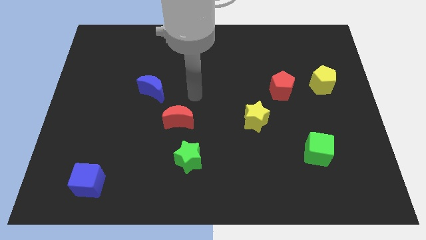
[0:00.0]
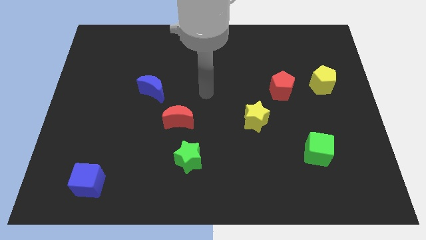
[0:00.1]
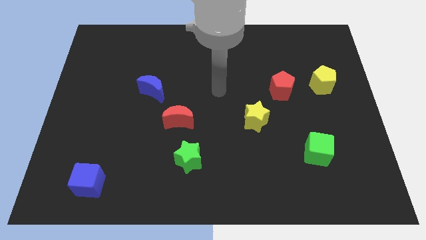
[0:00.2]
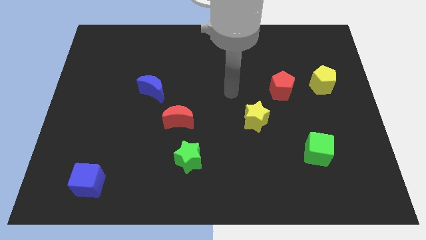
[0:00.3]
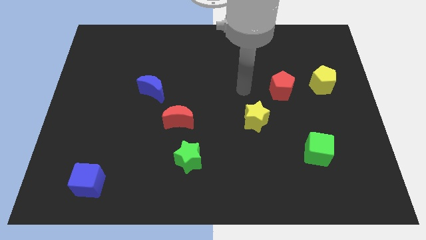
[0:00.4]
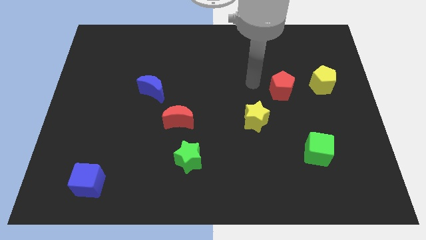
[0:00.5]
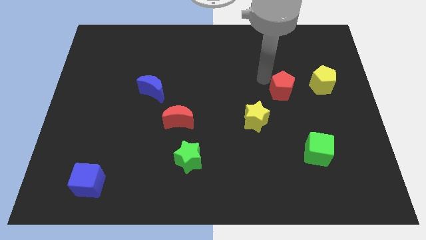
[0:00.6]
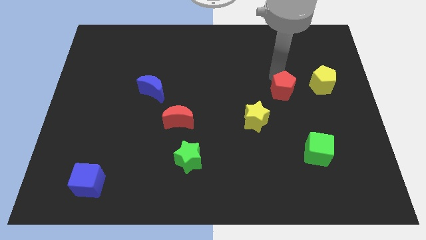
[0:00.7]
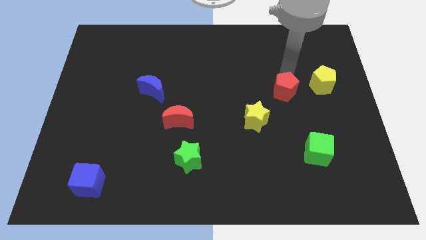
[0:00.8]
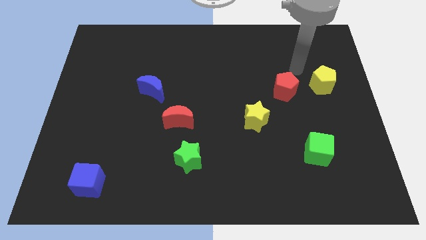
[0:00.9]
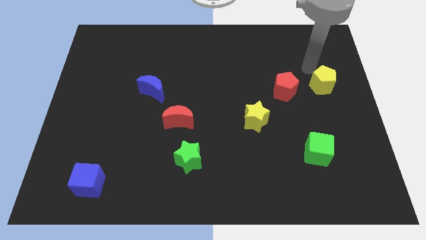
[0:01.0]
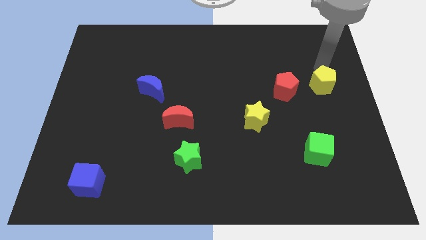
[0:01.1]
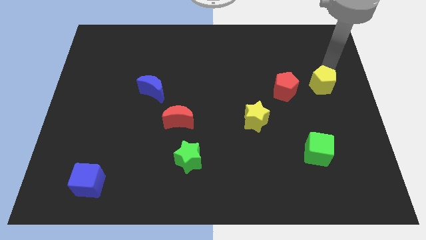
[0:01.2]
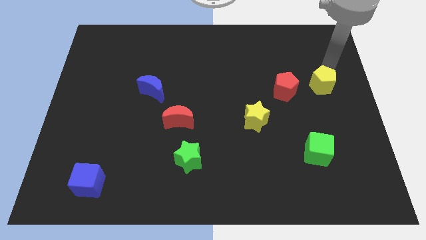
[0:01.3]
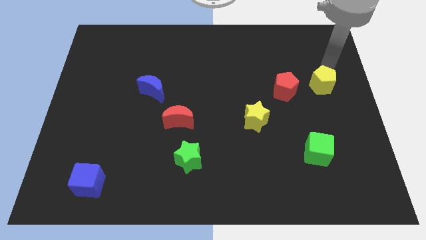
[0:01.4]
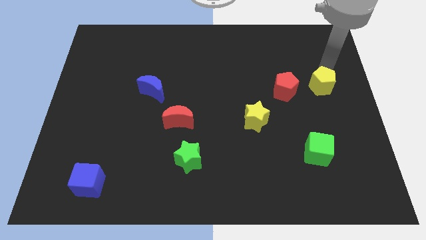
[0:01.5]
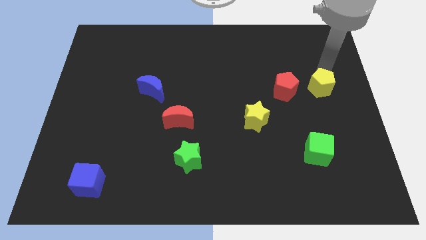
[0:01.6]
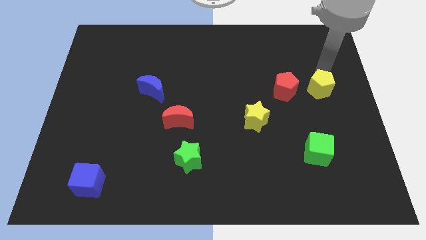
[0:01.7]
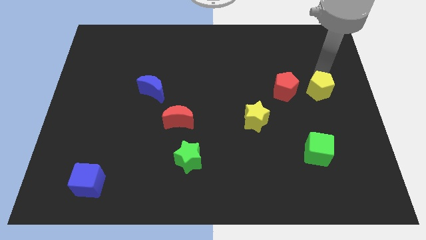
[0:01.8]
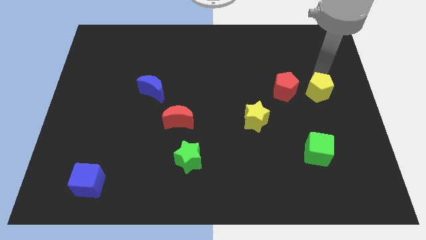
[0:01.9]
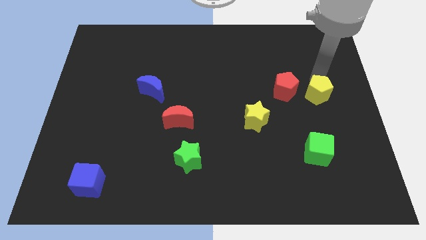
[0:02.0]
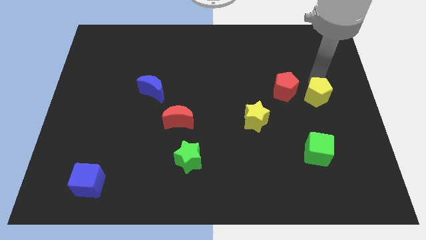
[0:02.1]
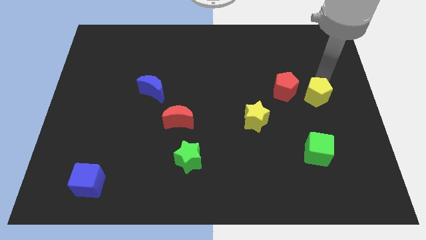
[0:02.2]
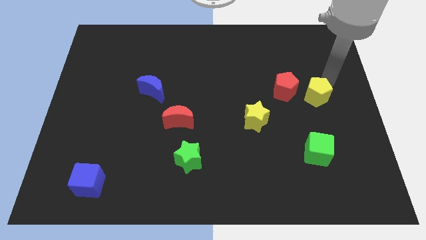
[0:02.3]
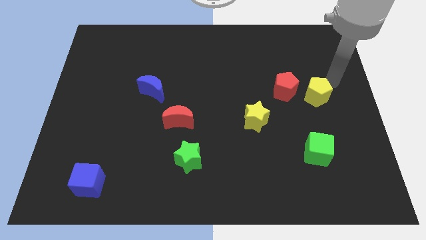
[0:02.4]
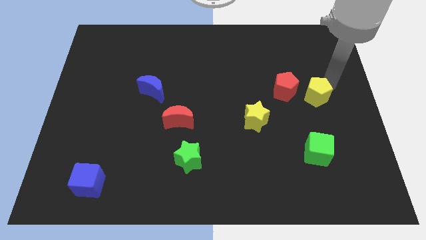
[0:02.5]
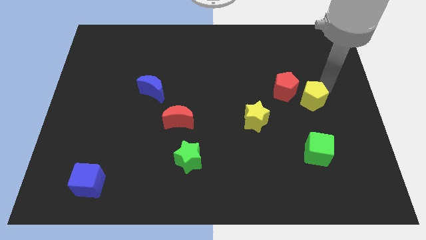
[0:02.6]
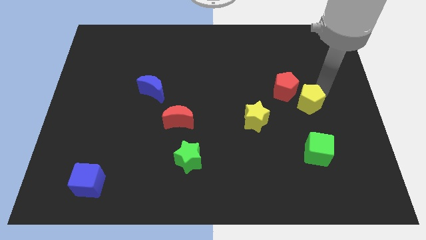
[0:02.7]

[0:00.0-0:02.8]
move the yellow pentagon downwards and left a little

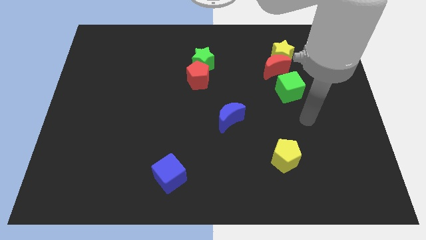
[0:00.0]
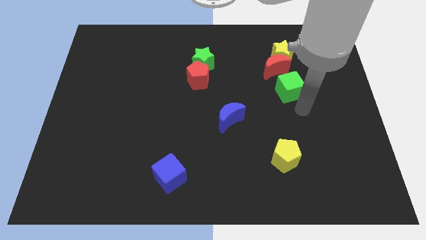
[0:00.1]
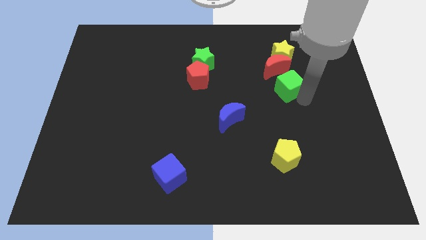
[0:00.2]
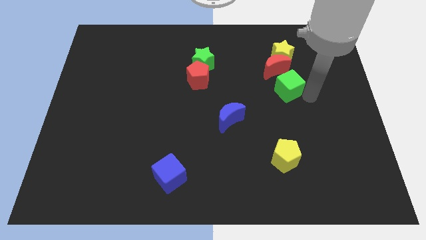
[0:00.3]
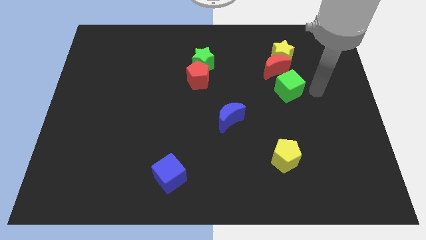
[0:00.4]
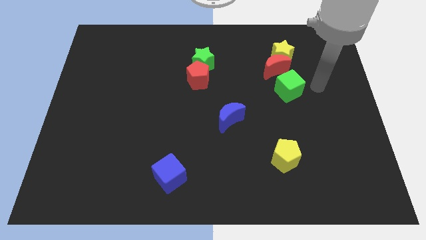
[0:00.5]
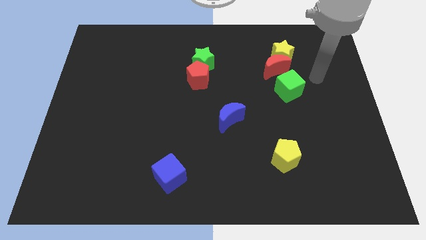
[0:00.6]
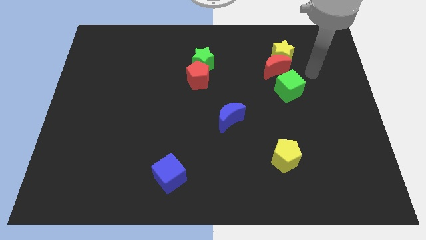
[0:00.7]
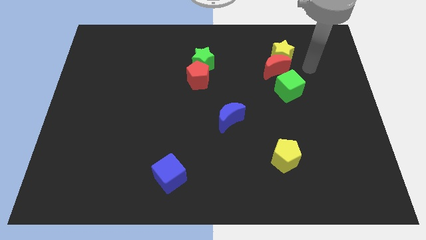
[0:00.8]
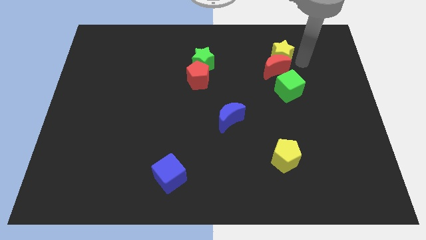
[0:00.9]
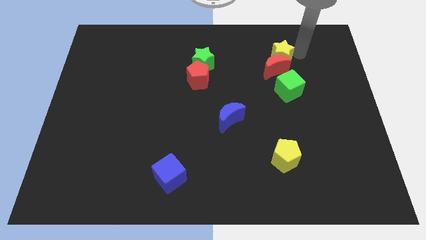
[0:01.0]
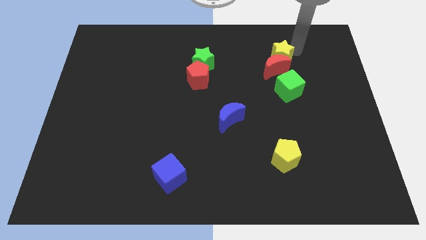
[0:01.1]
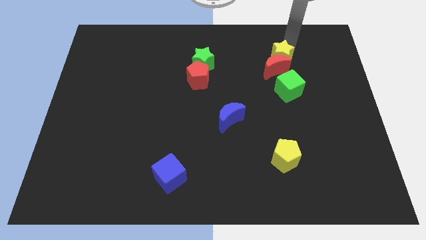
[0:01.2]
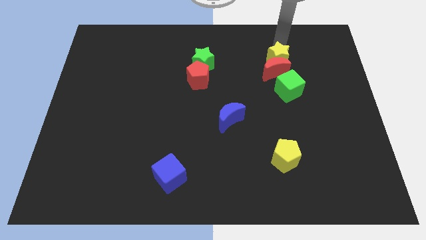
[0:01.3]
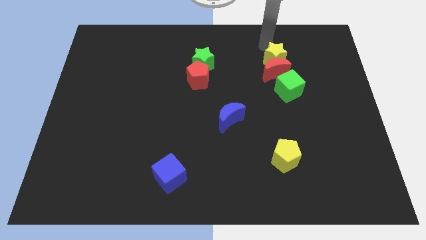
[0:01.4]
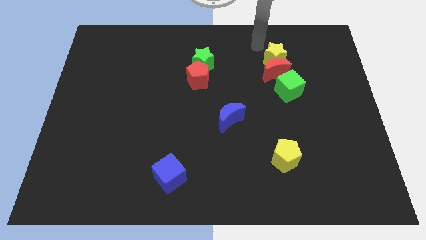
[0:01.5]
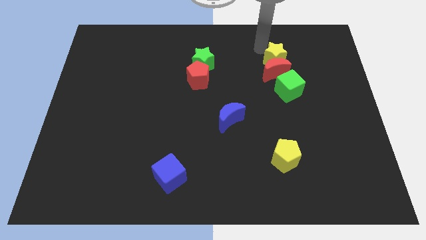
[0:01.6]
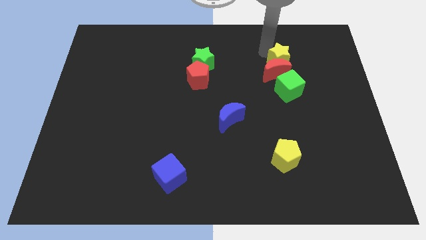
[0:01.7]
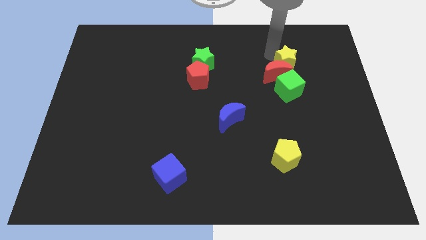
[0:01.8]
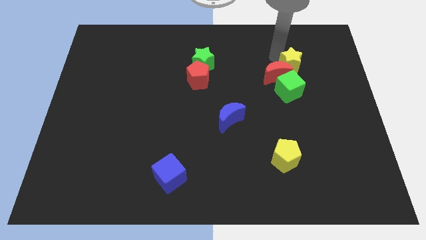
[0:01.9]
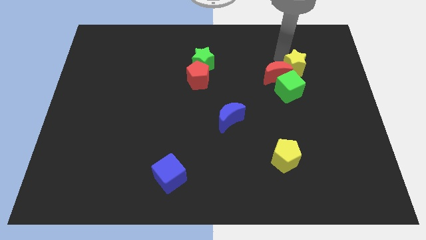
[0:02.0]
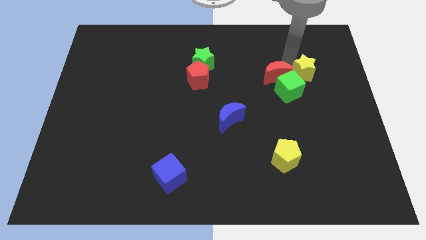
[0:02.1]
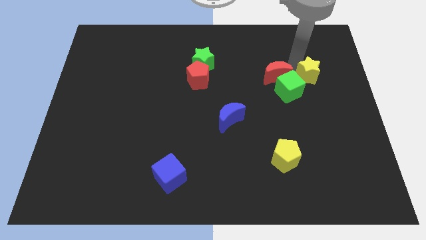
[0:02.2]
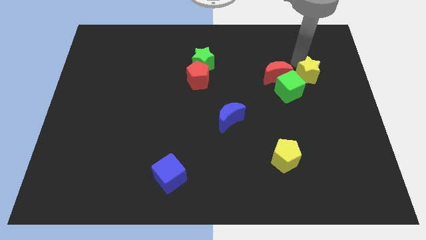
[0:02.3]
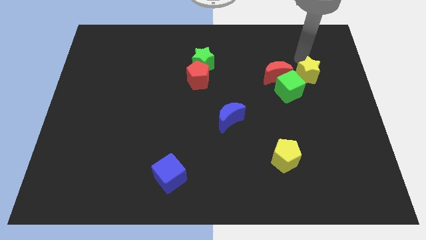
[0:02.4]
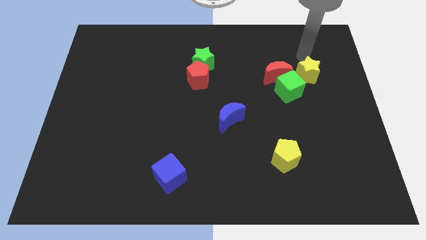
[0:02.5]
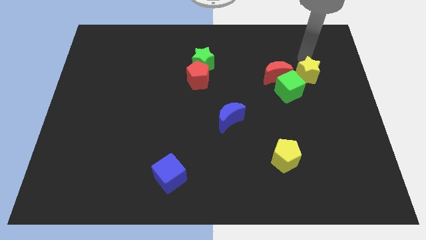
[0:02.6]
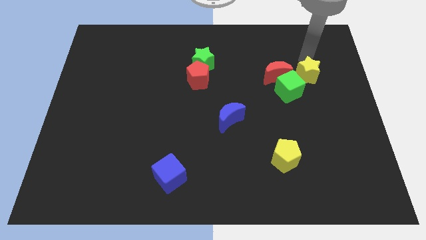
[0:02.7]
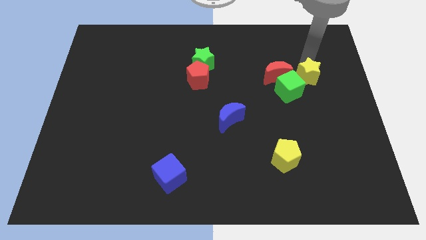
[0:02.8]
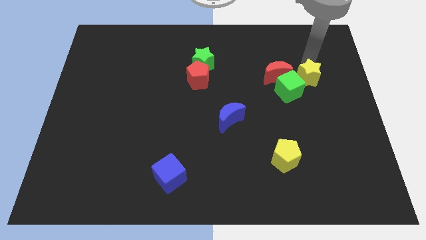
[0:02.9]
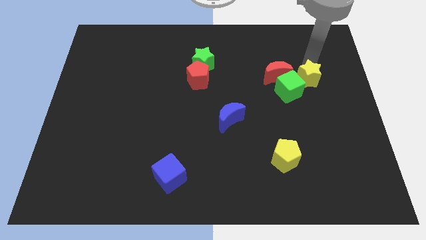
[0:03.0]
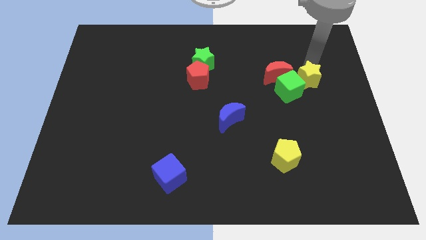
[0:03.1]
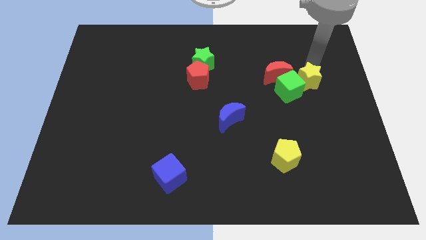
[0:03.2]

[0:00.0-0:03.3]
move the yellow star a bit downwards

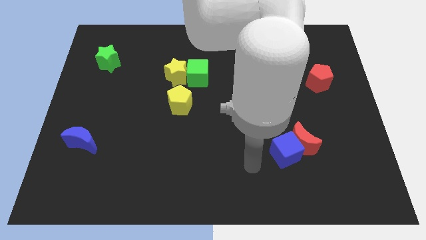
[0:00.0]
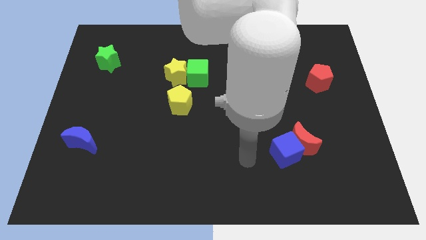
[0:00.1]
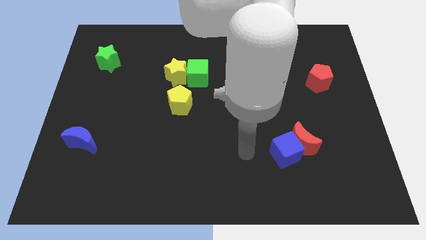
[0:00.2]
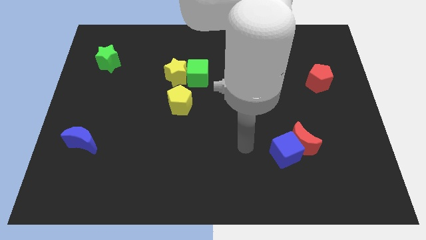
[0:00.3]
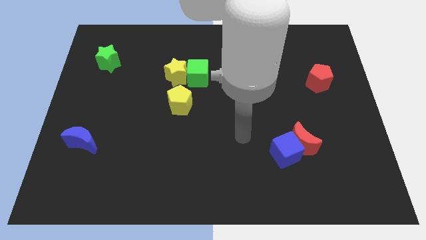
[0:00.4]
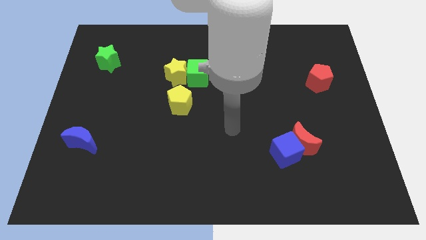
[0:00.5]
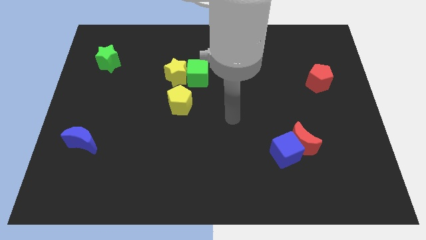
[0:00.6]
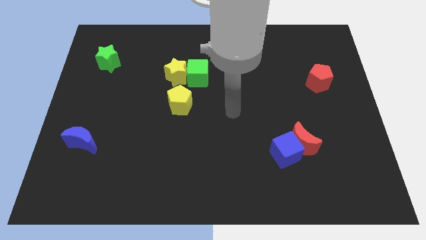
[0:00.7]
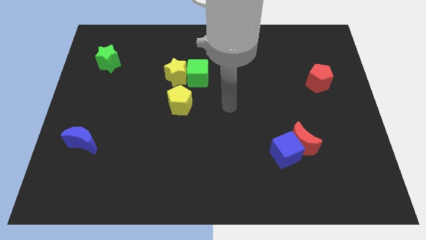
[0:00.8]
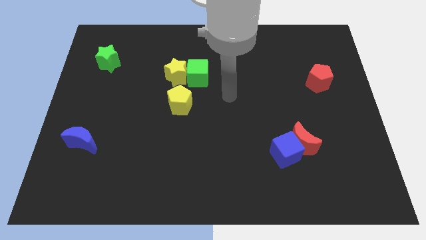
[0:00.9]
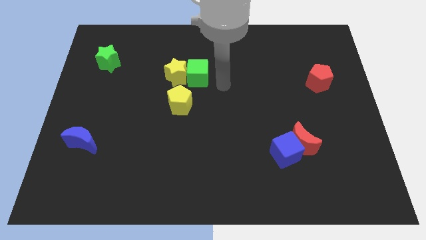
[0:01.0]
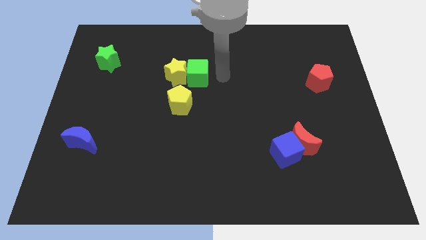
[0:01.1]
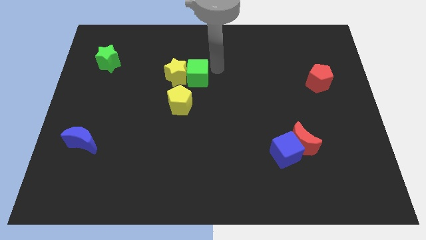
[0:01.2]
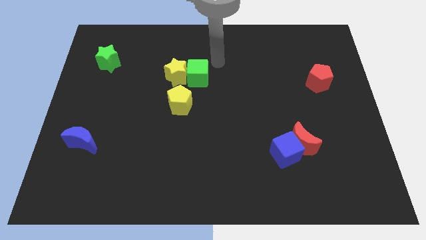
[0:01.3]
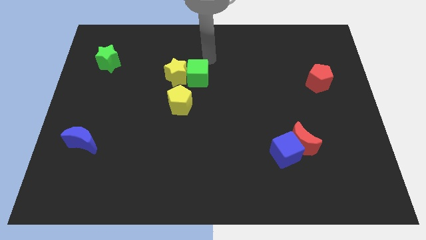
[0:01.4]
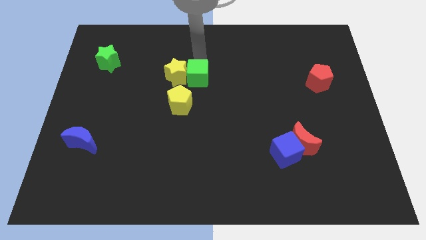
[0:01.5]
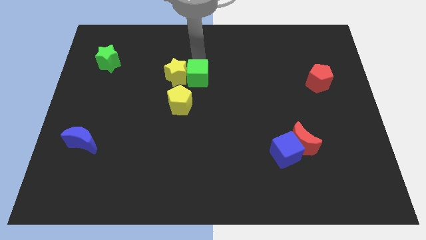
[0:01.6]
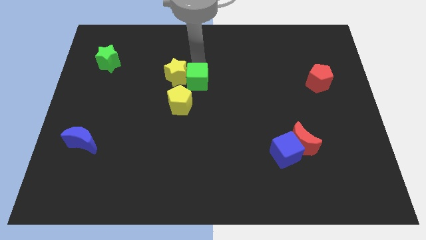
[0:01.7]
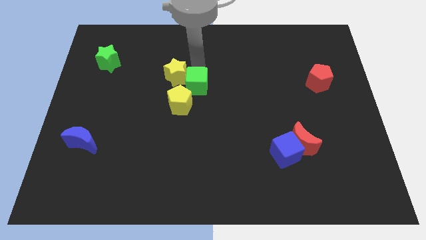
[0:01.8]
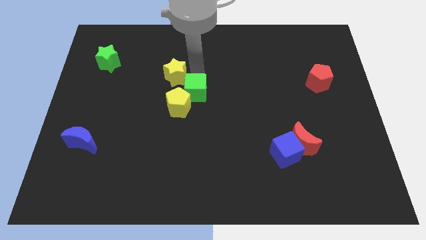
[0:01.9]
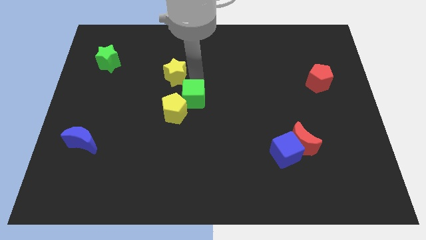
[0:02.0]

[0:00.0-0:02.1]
slightly slide the green cube down
